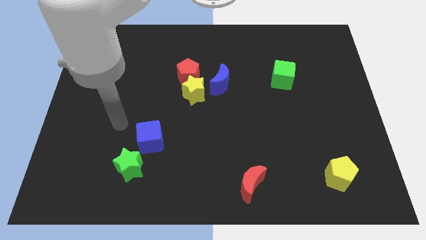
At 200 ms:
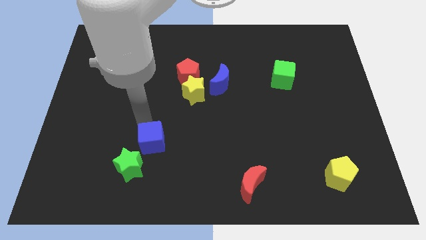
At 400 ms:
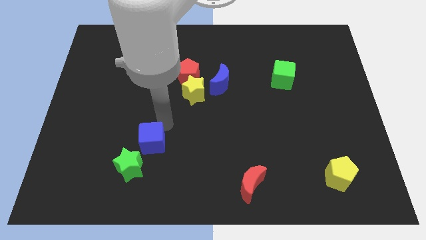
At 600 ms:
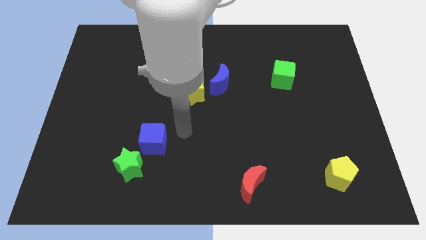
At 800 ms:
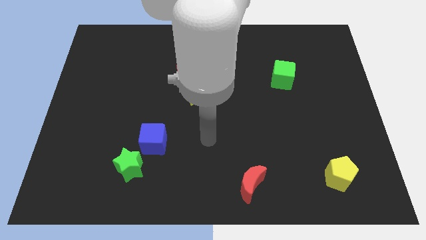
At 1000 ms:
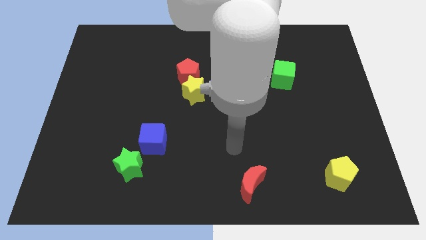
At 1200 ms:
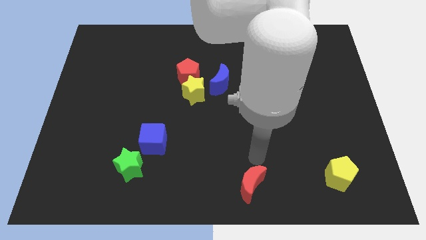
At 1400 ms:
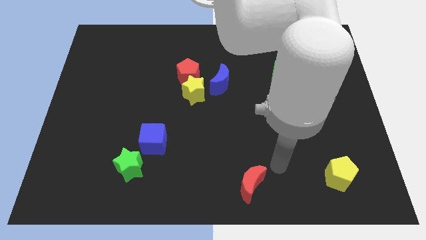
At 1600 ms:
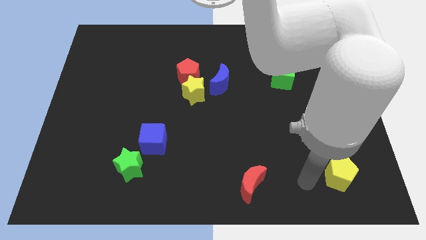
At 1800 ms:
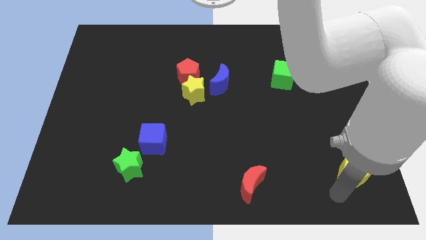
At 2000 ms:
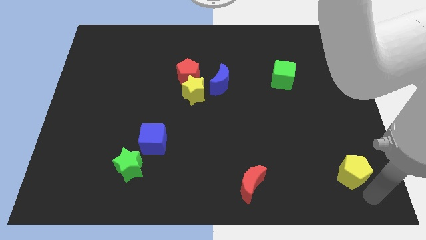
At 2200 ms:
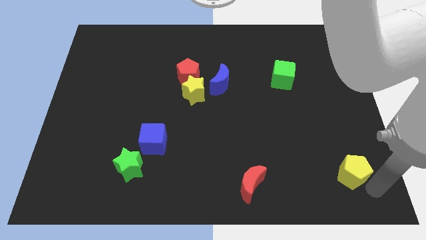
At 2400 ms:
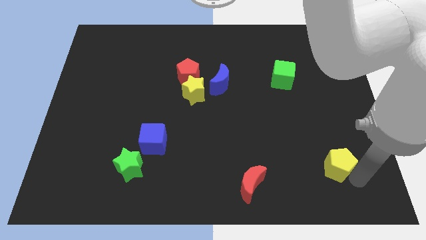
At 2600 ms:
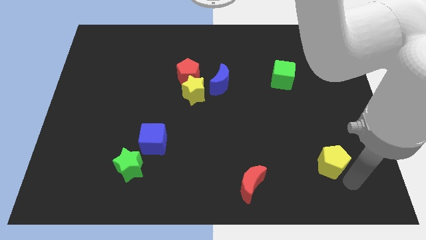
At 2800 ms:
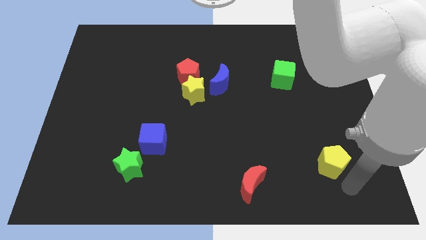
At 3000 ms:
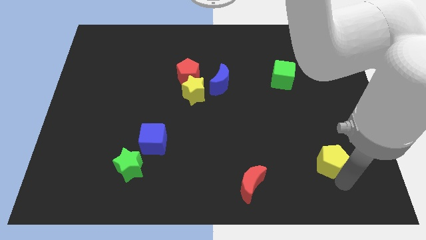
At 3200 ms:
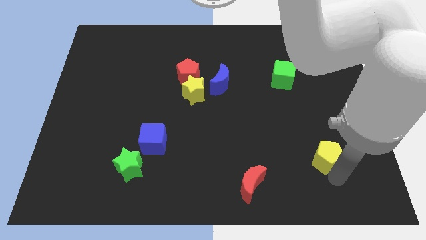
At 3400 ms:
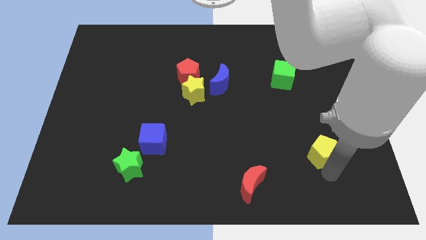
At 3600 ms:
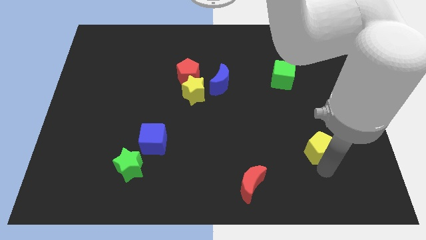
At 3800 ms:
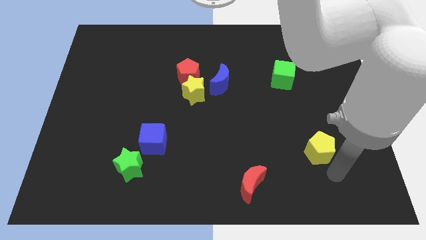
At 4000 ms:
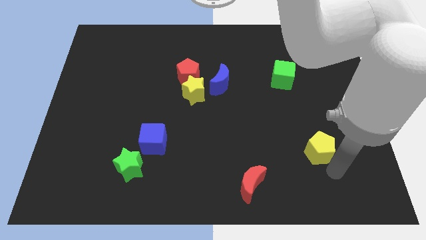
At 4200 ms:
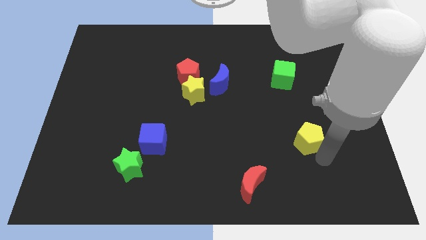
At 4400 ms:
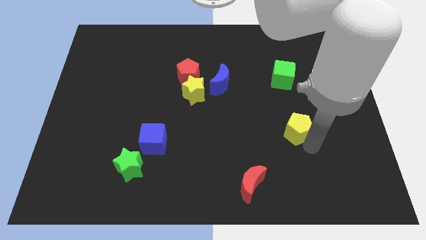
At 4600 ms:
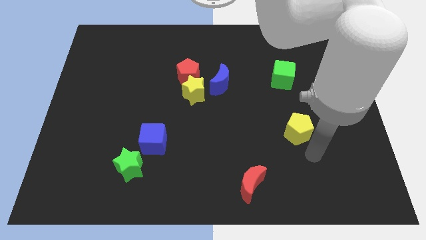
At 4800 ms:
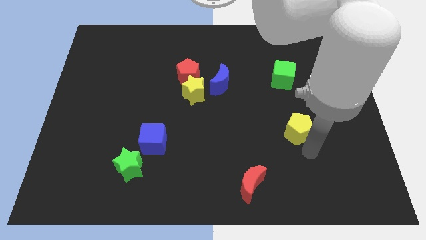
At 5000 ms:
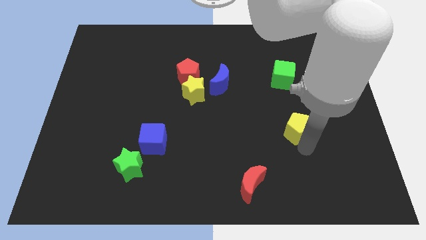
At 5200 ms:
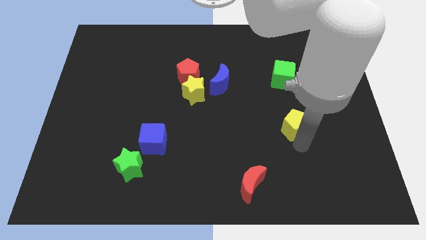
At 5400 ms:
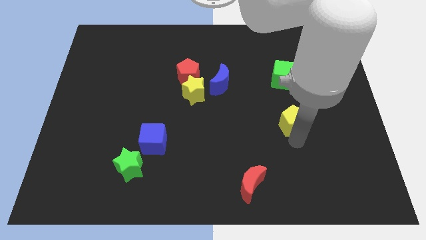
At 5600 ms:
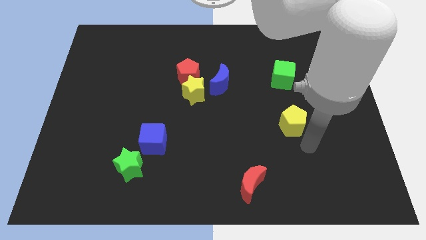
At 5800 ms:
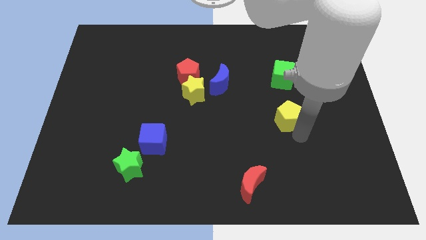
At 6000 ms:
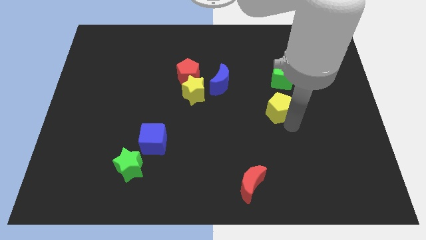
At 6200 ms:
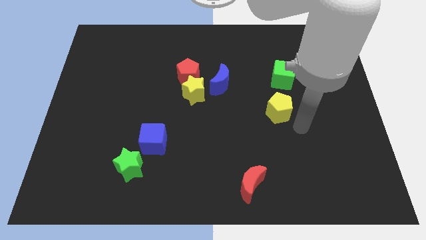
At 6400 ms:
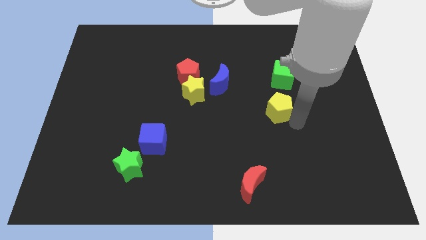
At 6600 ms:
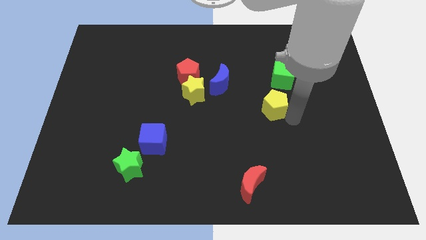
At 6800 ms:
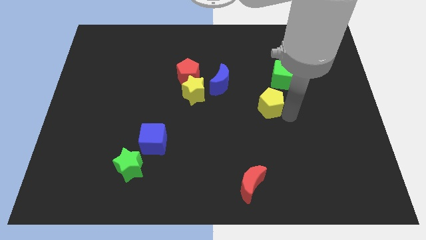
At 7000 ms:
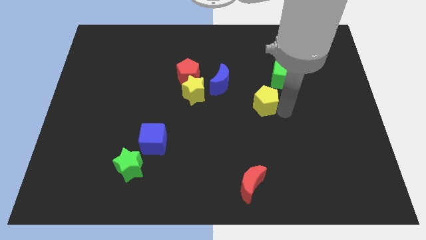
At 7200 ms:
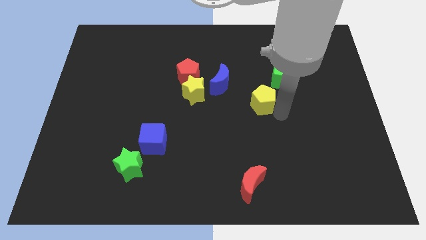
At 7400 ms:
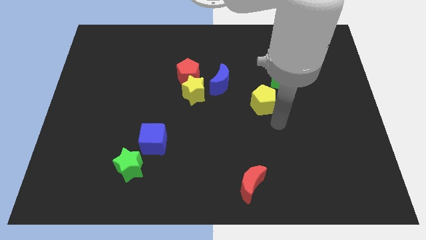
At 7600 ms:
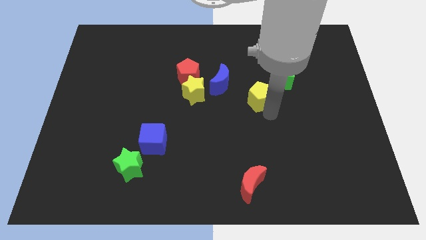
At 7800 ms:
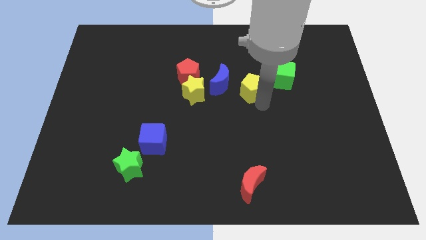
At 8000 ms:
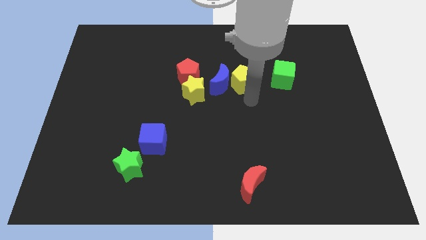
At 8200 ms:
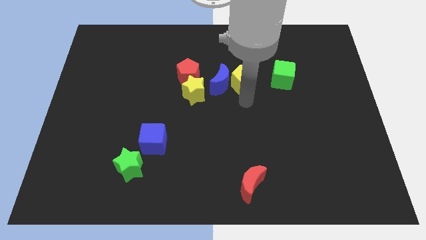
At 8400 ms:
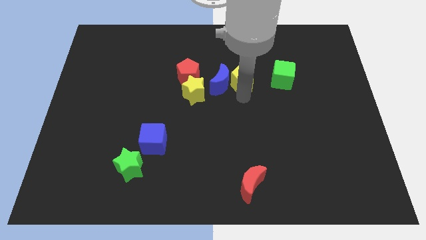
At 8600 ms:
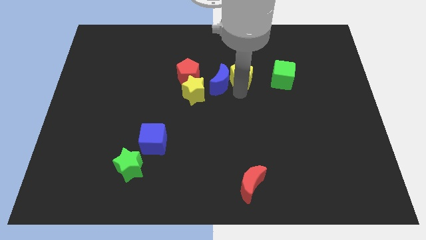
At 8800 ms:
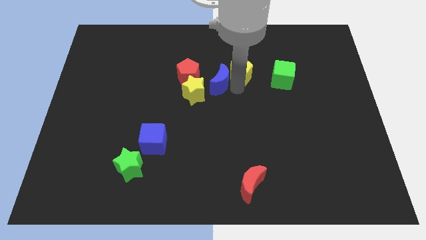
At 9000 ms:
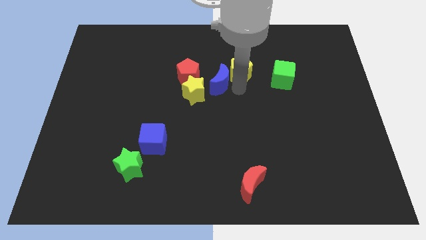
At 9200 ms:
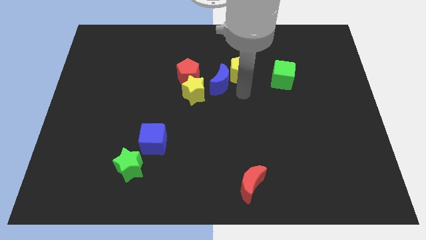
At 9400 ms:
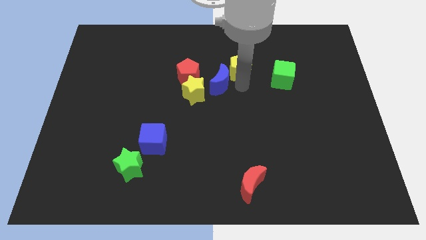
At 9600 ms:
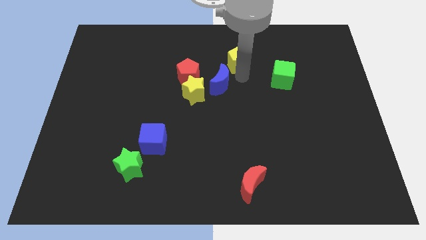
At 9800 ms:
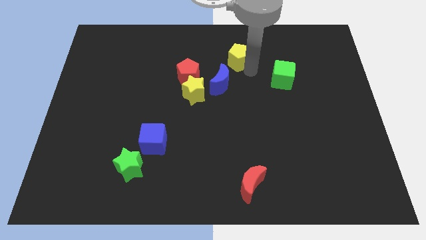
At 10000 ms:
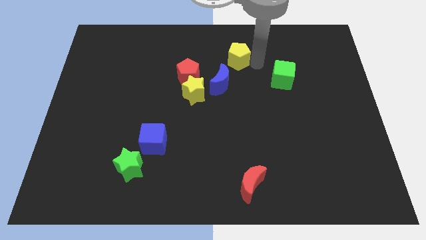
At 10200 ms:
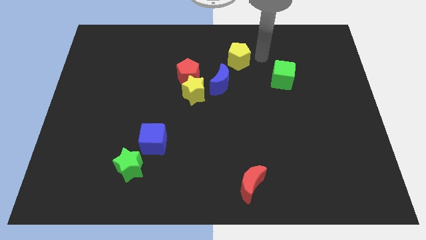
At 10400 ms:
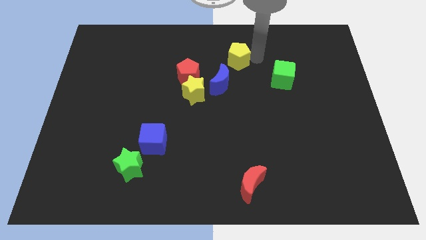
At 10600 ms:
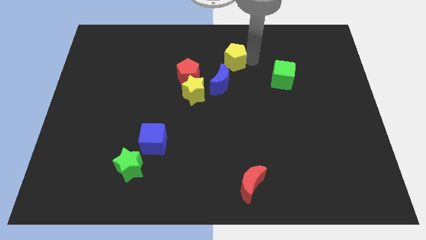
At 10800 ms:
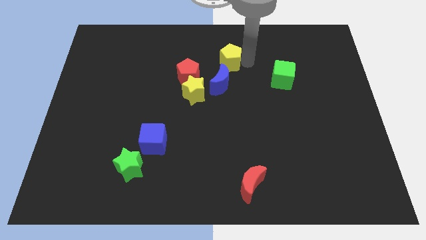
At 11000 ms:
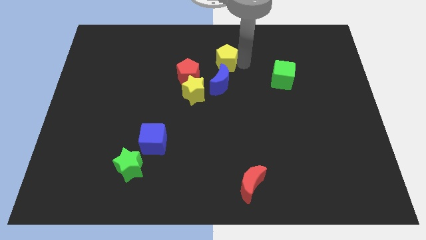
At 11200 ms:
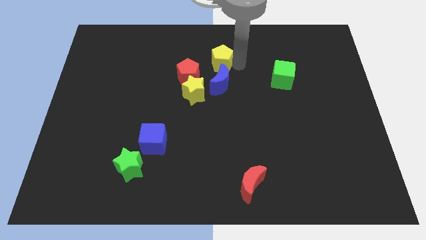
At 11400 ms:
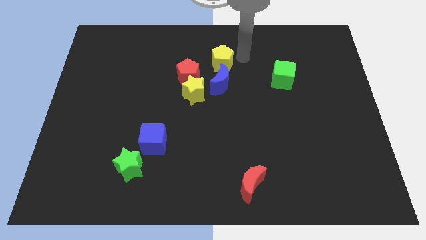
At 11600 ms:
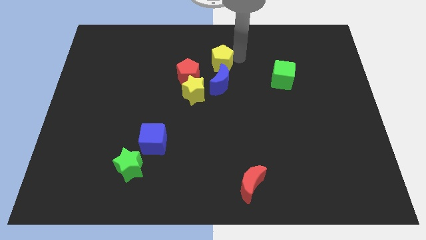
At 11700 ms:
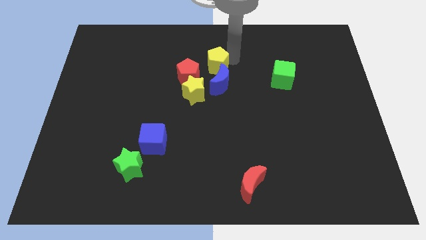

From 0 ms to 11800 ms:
move the yellow pentagon diagonally up and to the left of the blue moon

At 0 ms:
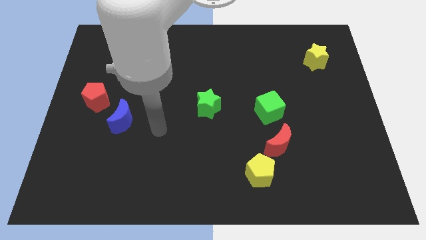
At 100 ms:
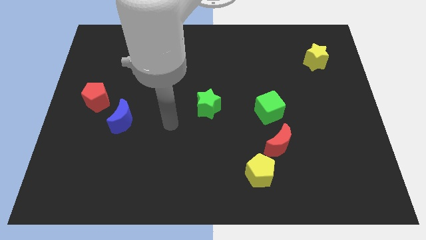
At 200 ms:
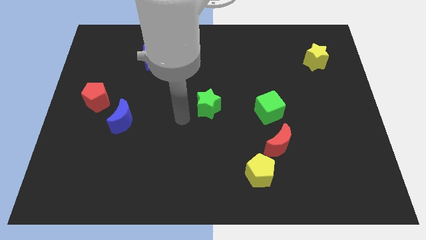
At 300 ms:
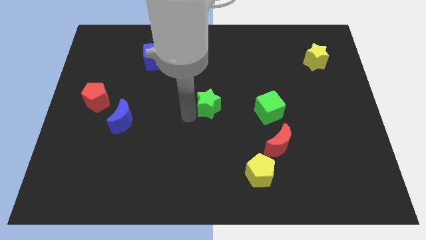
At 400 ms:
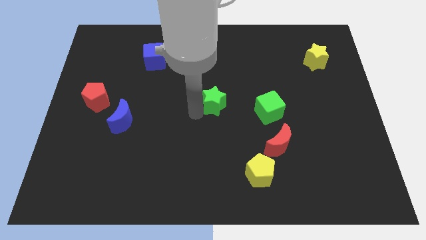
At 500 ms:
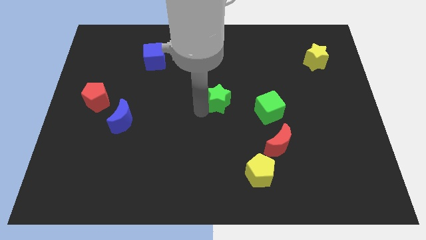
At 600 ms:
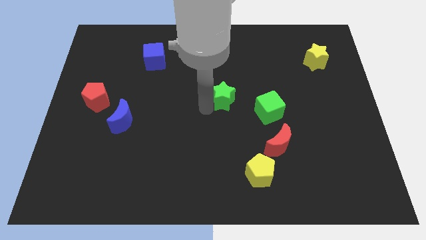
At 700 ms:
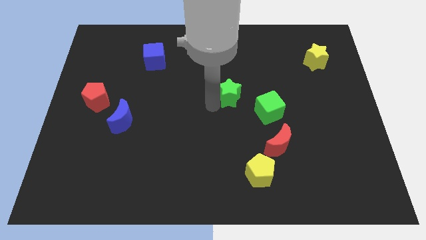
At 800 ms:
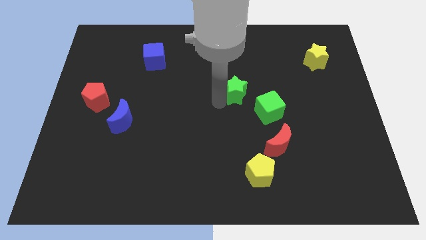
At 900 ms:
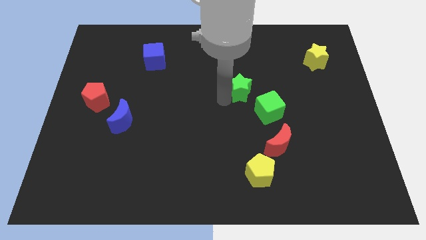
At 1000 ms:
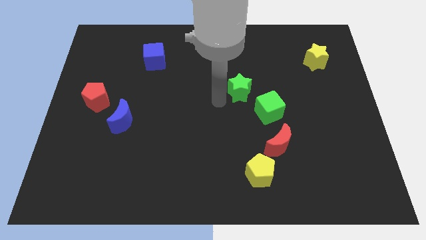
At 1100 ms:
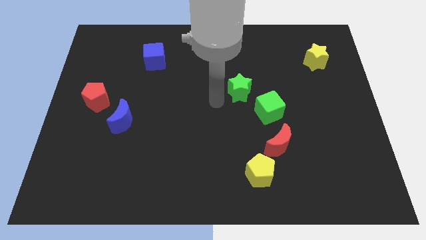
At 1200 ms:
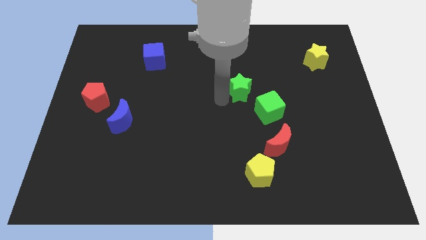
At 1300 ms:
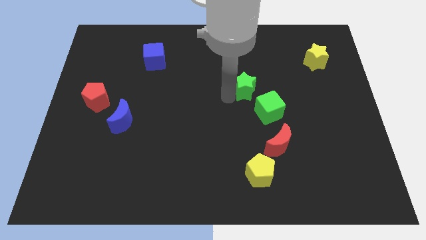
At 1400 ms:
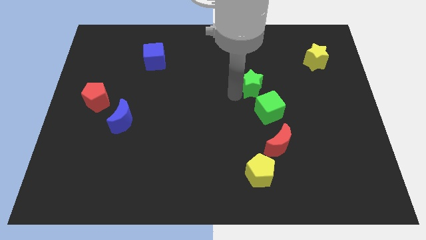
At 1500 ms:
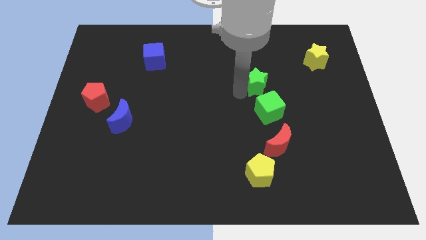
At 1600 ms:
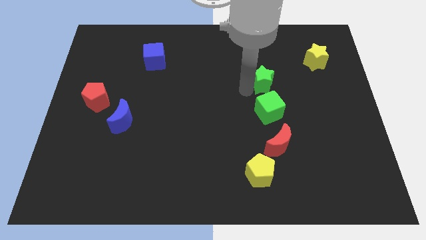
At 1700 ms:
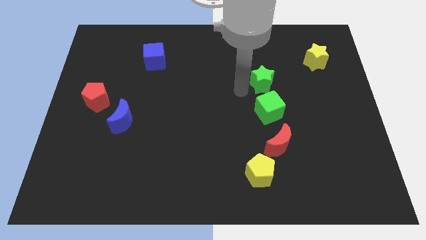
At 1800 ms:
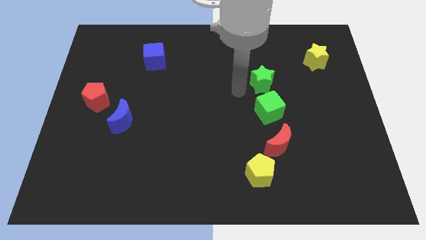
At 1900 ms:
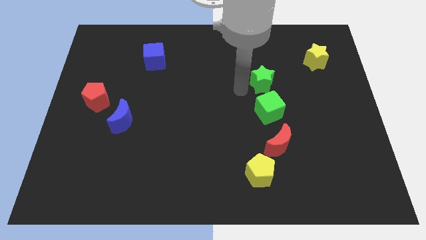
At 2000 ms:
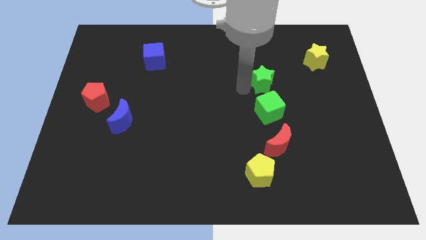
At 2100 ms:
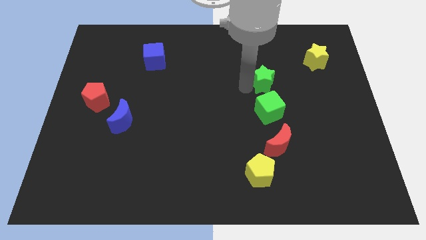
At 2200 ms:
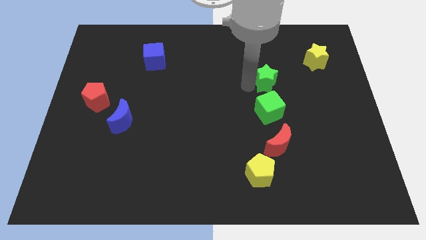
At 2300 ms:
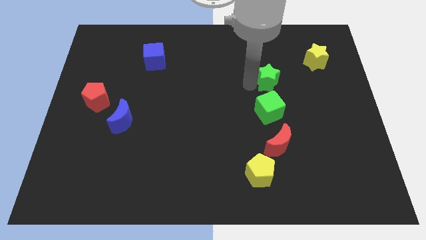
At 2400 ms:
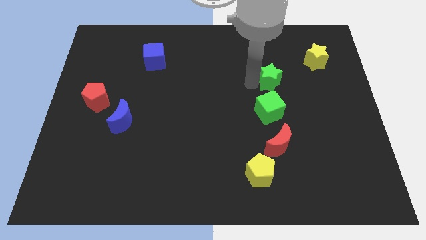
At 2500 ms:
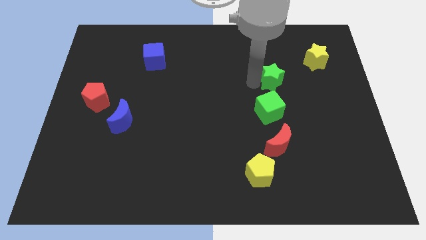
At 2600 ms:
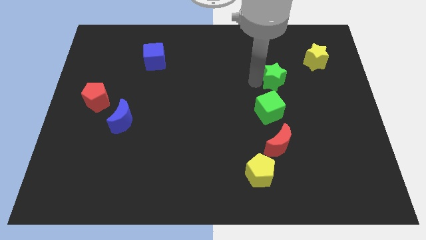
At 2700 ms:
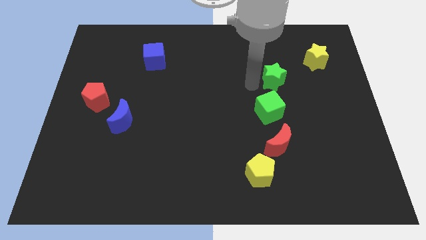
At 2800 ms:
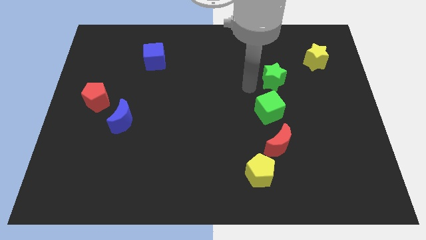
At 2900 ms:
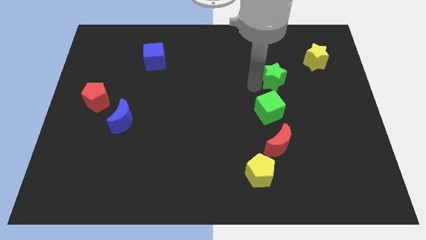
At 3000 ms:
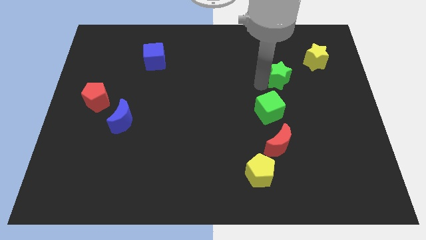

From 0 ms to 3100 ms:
move the green star diagonally down and to the left of the yellow star
